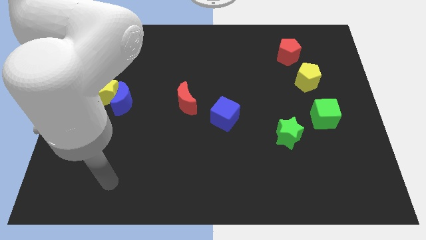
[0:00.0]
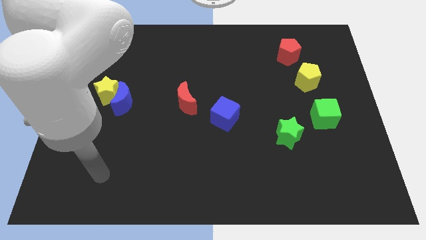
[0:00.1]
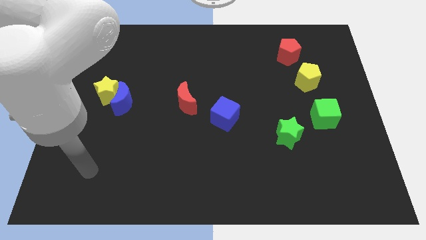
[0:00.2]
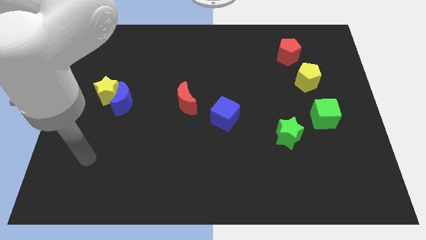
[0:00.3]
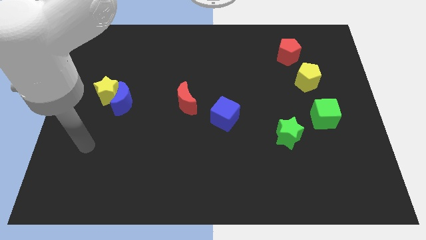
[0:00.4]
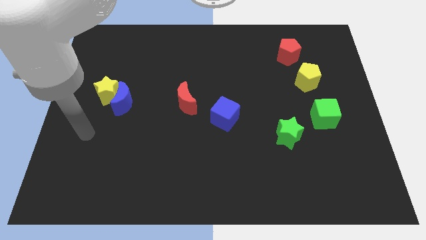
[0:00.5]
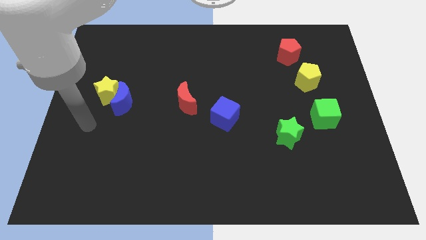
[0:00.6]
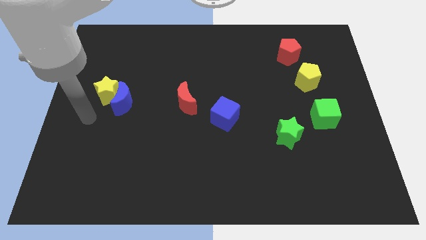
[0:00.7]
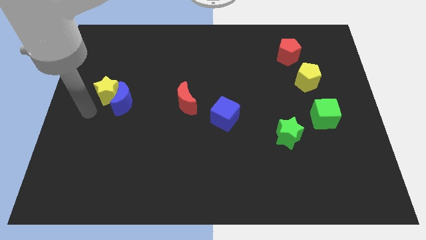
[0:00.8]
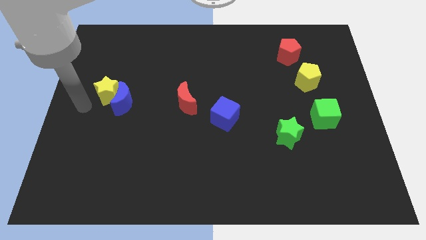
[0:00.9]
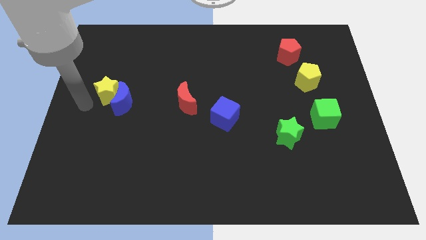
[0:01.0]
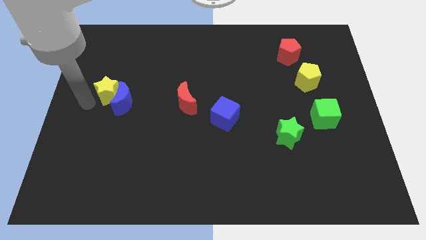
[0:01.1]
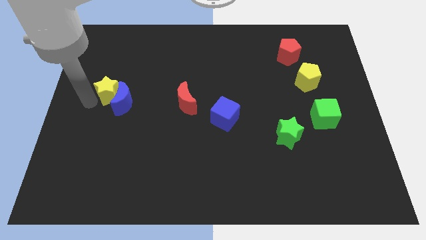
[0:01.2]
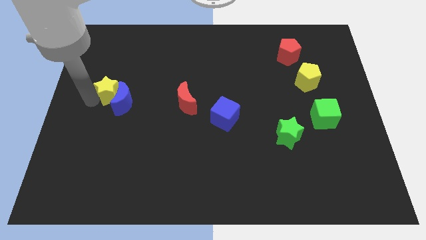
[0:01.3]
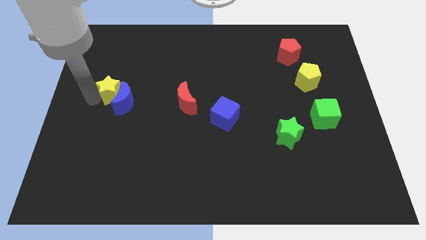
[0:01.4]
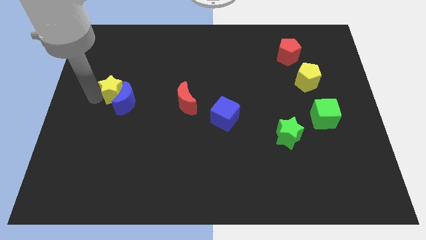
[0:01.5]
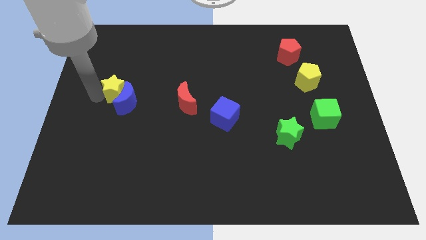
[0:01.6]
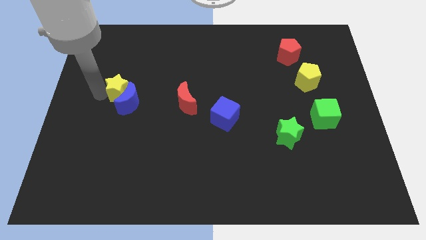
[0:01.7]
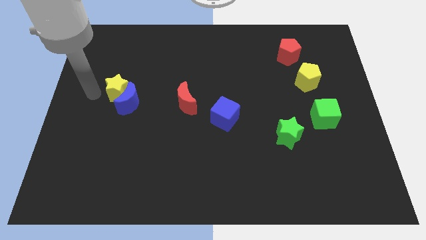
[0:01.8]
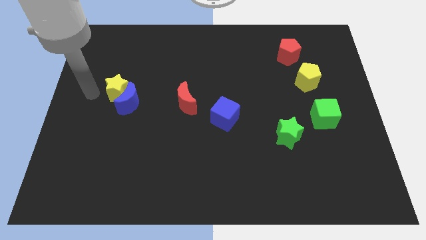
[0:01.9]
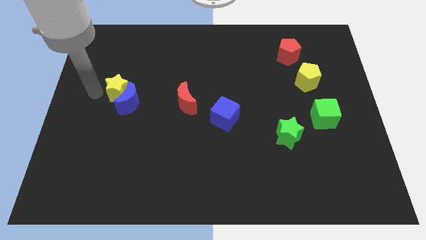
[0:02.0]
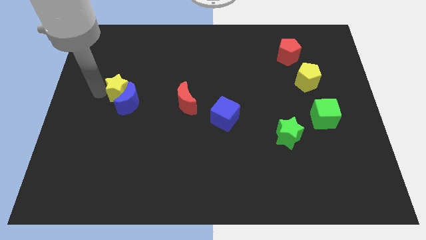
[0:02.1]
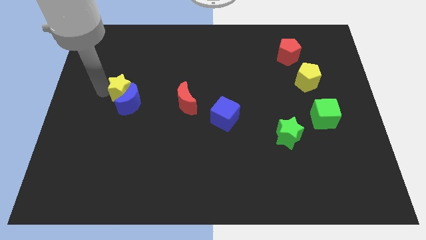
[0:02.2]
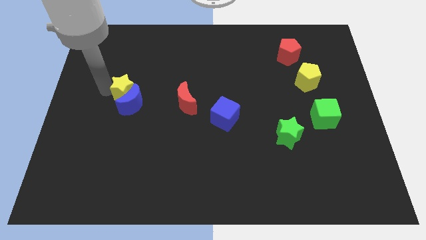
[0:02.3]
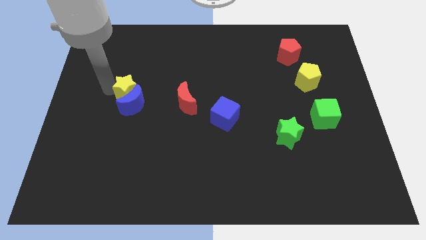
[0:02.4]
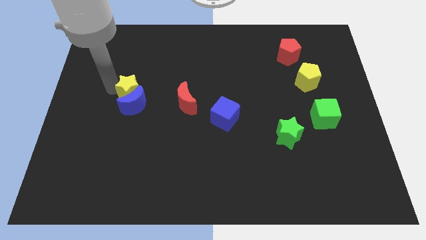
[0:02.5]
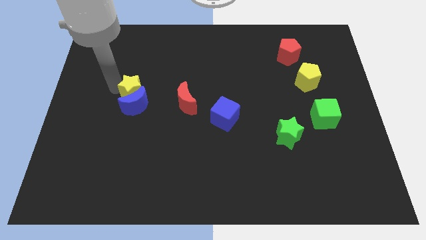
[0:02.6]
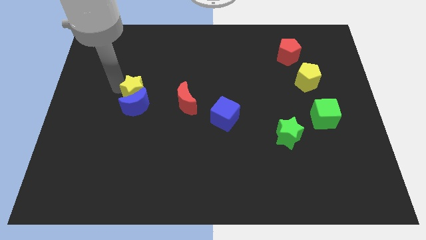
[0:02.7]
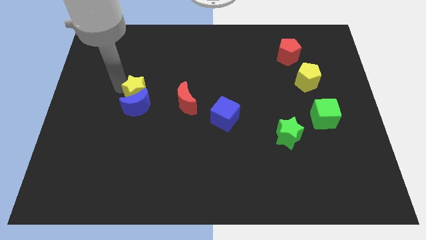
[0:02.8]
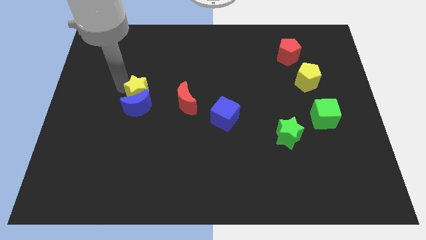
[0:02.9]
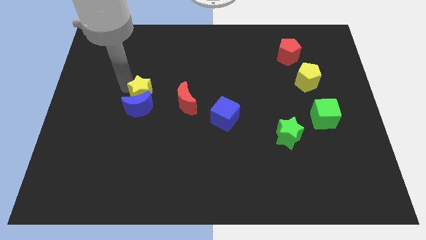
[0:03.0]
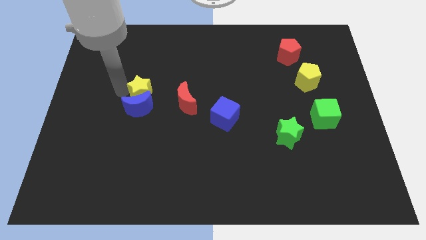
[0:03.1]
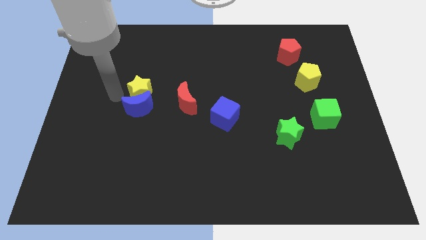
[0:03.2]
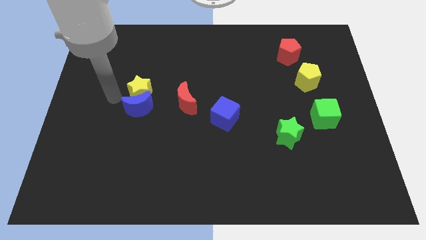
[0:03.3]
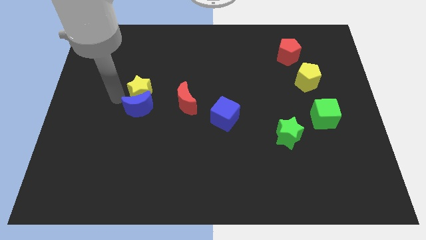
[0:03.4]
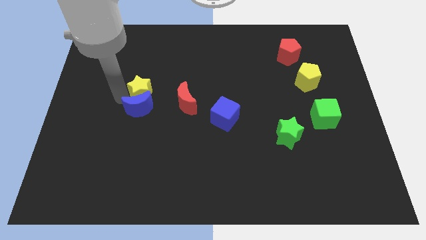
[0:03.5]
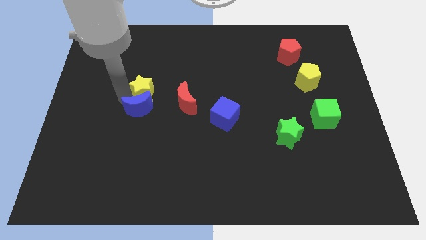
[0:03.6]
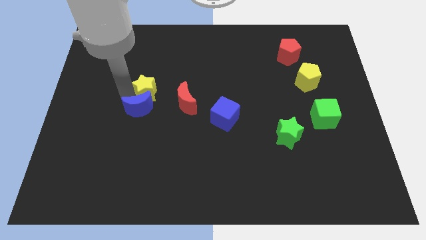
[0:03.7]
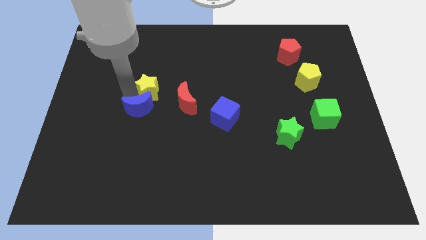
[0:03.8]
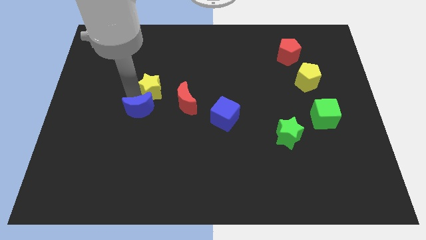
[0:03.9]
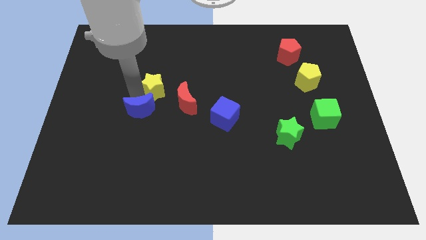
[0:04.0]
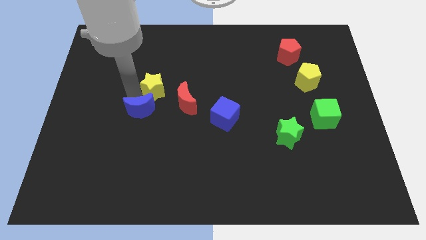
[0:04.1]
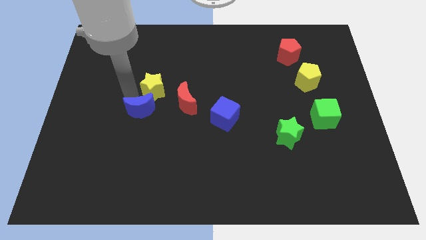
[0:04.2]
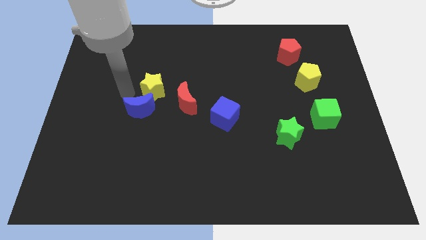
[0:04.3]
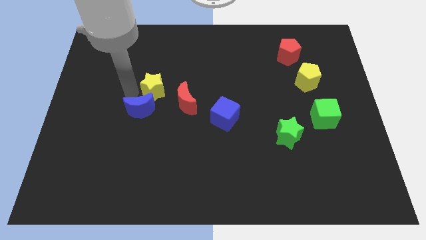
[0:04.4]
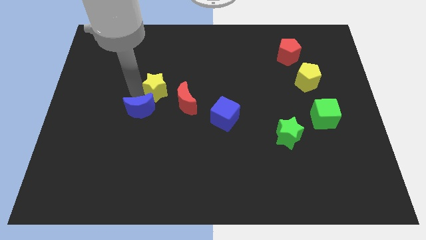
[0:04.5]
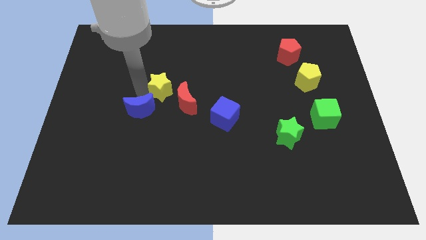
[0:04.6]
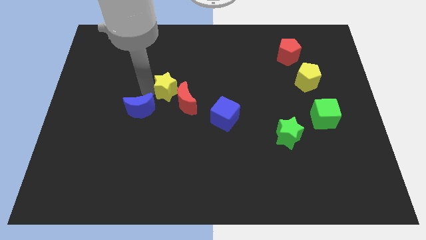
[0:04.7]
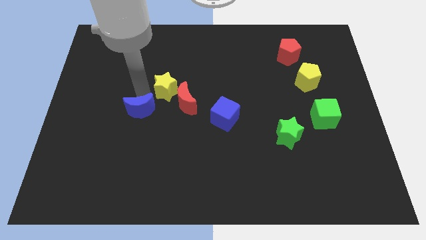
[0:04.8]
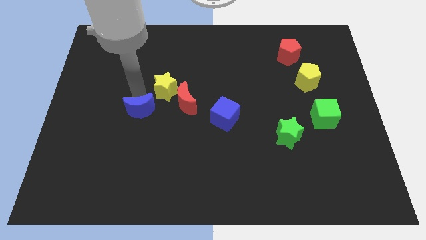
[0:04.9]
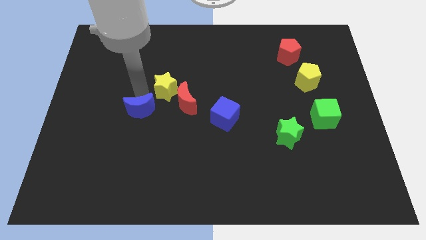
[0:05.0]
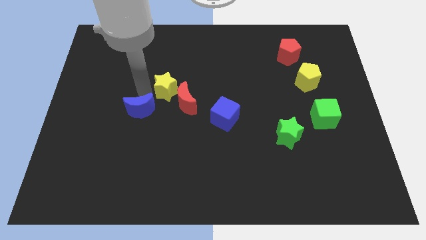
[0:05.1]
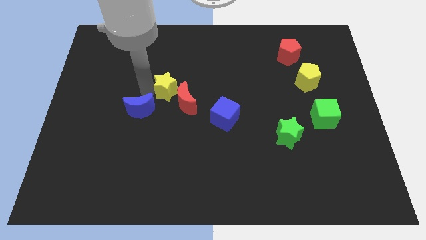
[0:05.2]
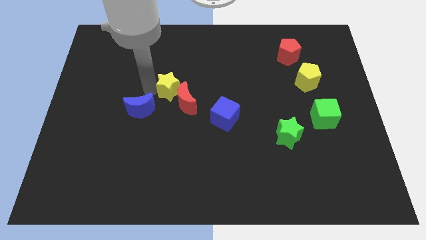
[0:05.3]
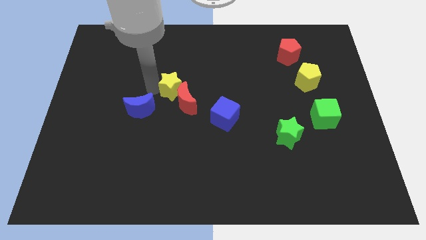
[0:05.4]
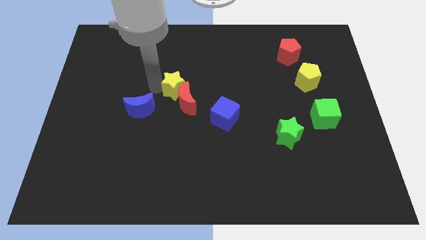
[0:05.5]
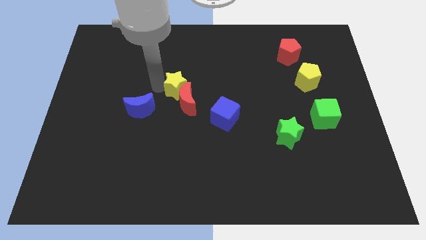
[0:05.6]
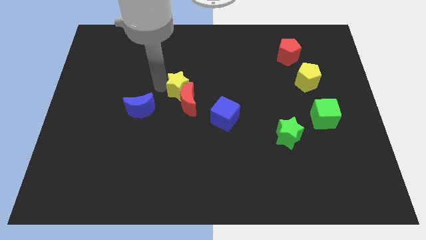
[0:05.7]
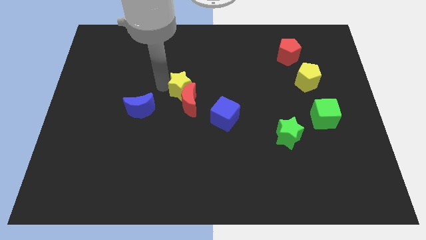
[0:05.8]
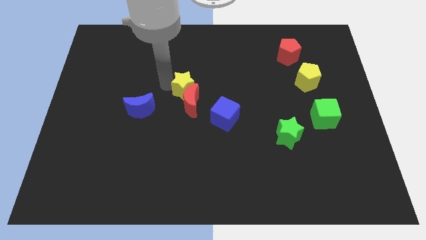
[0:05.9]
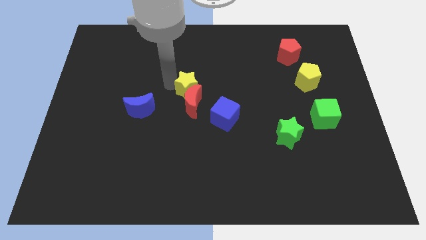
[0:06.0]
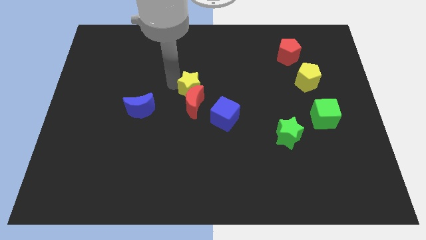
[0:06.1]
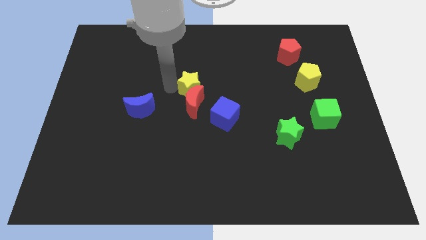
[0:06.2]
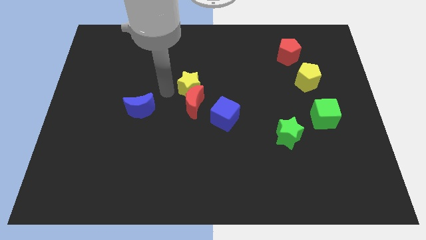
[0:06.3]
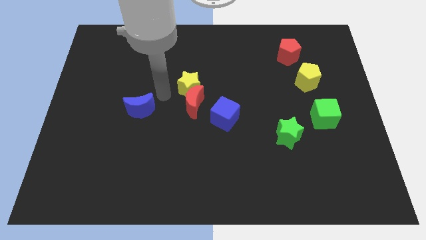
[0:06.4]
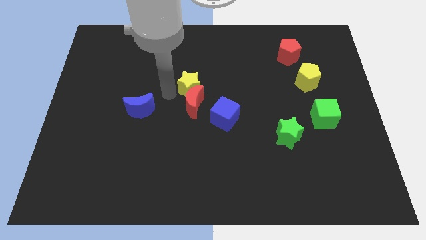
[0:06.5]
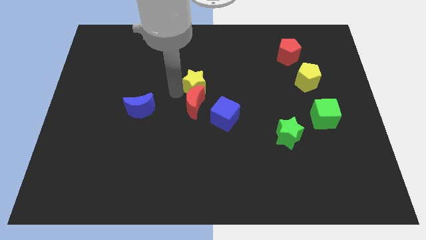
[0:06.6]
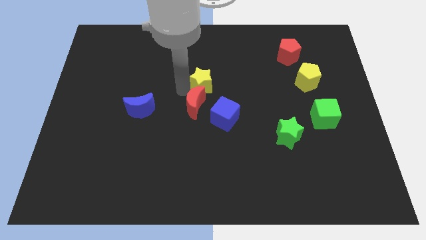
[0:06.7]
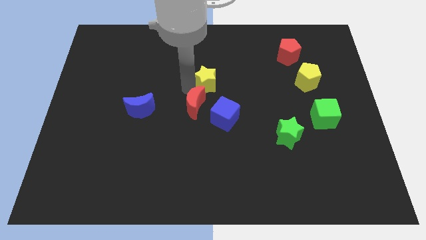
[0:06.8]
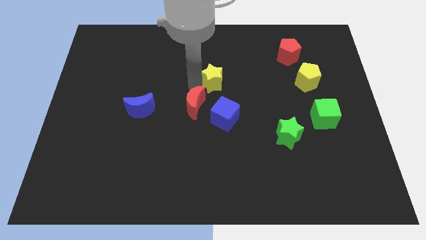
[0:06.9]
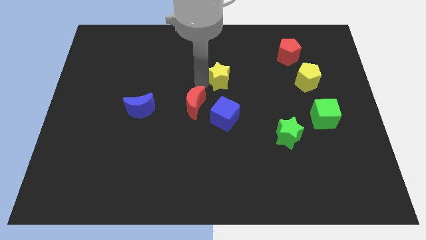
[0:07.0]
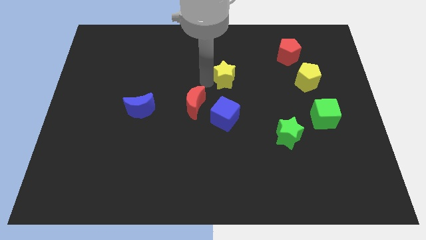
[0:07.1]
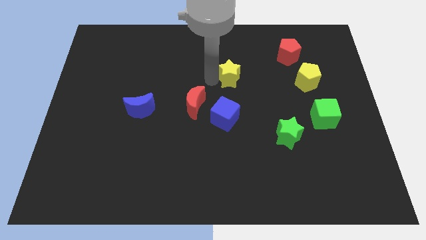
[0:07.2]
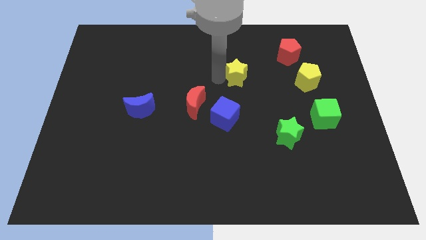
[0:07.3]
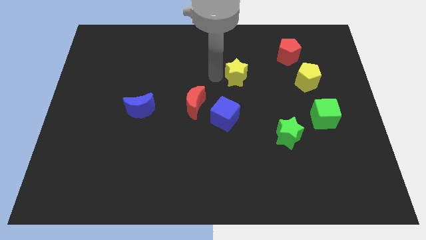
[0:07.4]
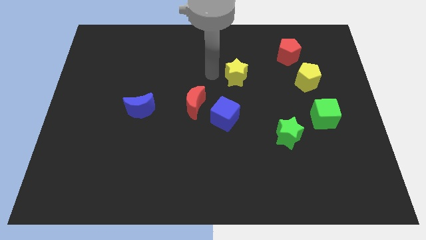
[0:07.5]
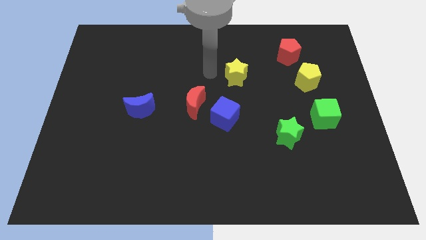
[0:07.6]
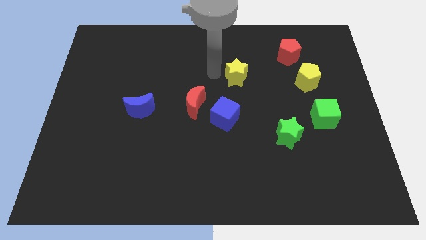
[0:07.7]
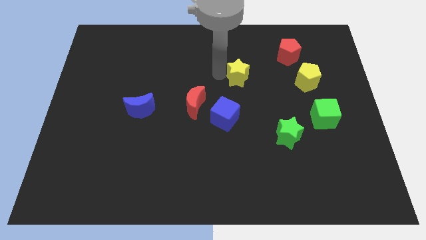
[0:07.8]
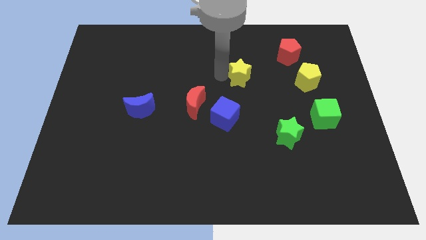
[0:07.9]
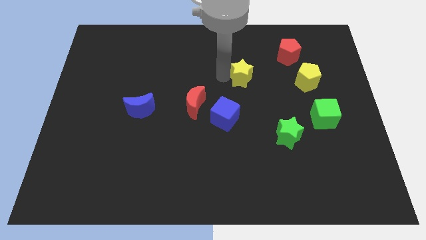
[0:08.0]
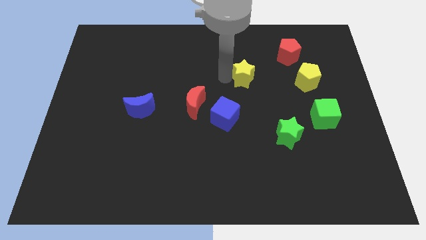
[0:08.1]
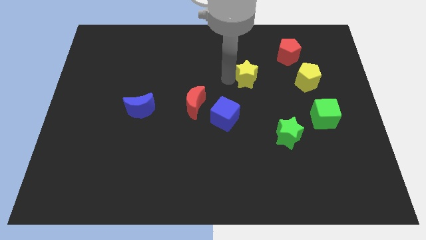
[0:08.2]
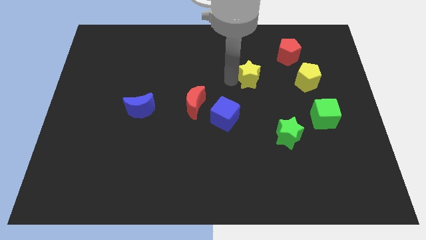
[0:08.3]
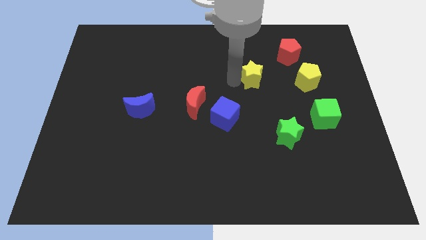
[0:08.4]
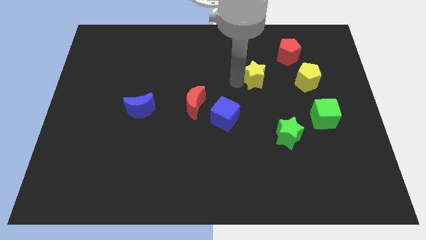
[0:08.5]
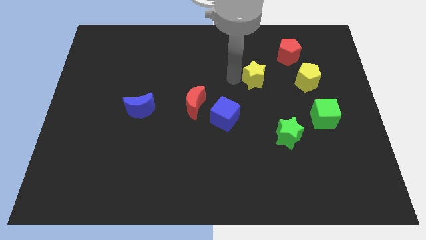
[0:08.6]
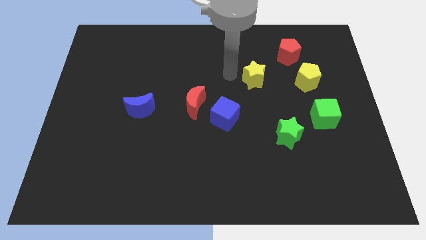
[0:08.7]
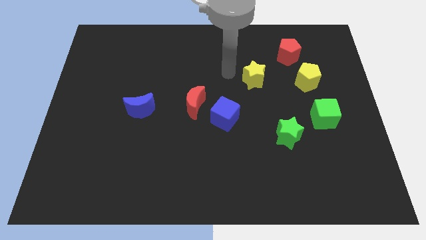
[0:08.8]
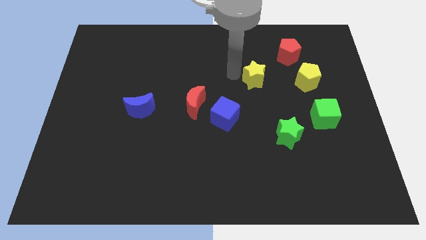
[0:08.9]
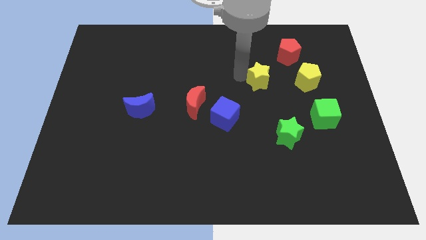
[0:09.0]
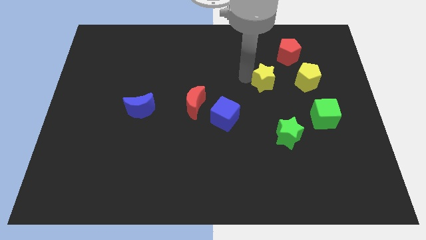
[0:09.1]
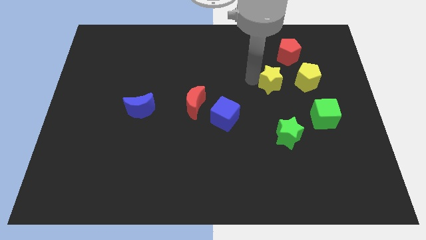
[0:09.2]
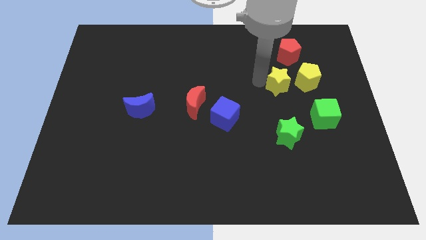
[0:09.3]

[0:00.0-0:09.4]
push the yellow star below the red pentagon
